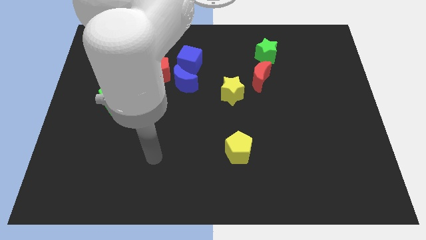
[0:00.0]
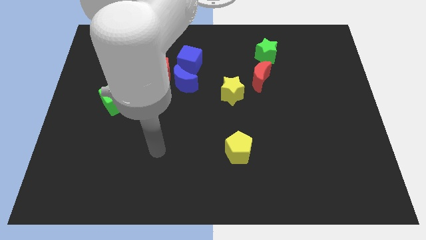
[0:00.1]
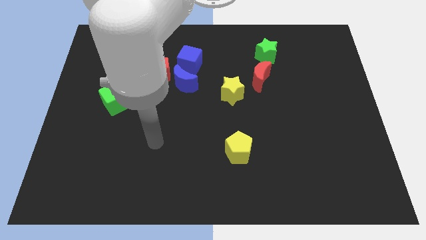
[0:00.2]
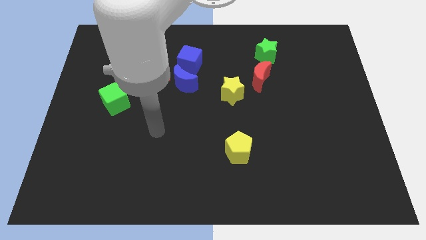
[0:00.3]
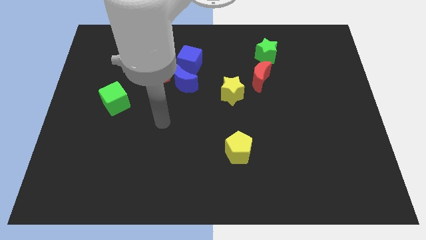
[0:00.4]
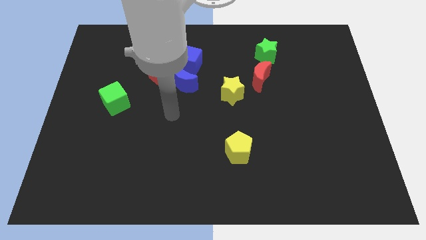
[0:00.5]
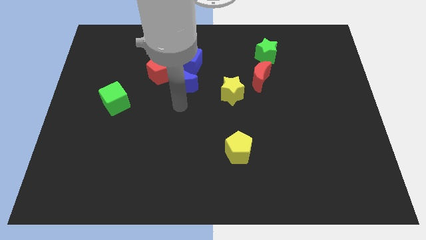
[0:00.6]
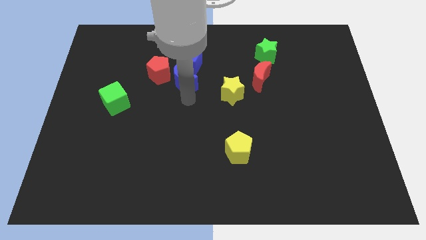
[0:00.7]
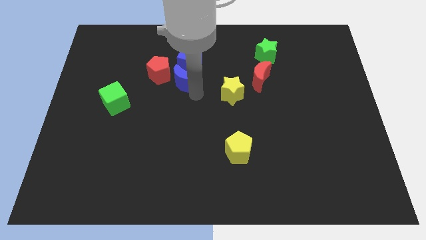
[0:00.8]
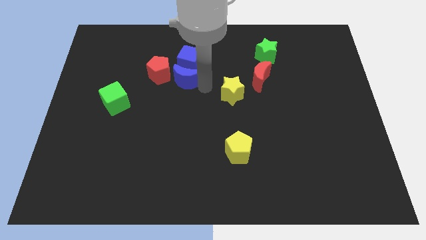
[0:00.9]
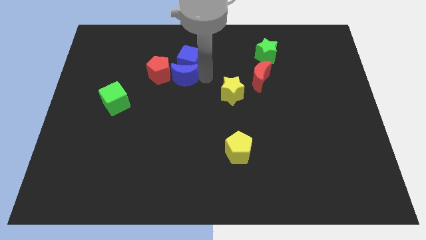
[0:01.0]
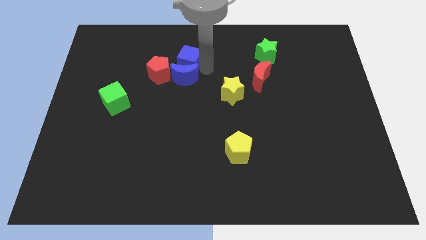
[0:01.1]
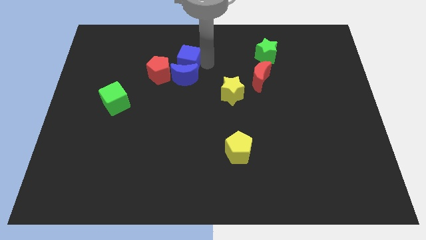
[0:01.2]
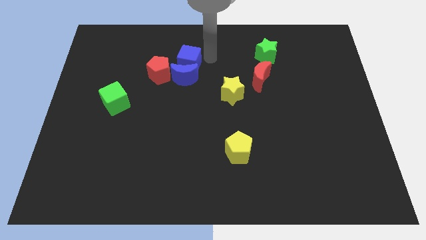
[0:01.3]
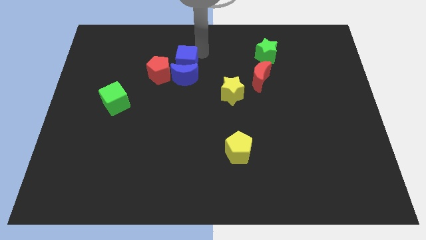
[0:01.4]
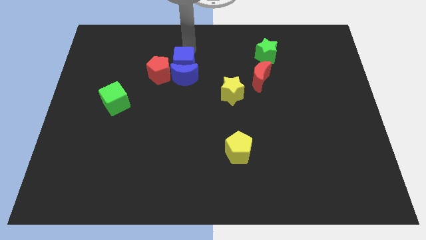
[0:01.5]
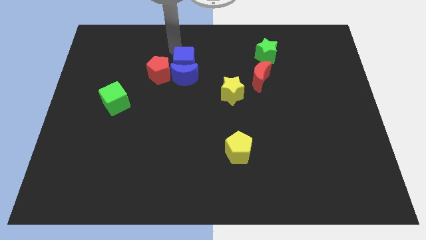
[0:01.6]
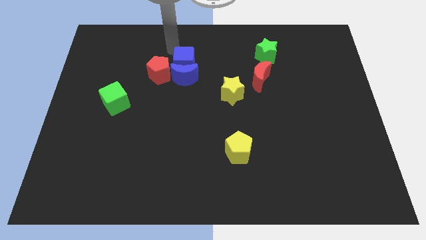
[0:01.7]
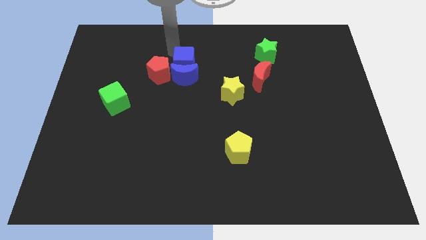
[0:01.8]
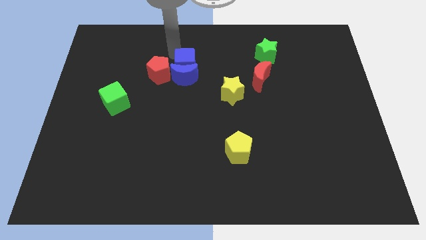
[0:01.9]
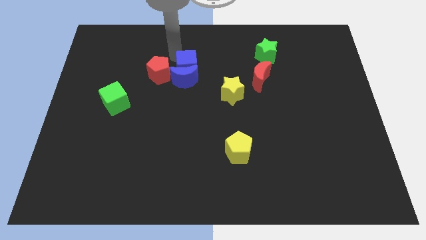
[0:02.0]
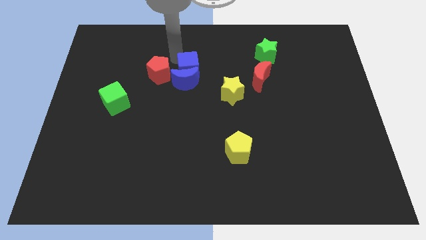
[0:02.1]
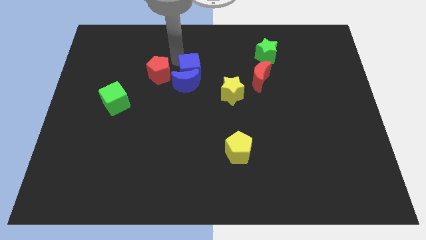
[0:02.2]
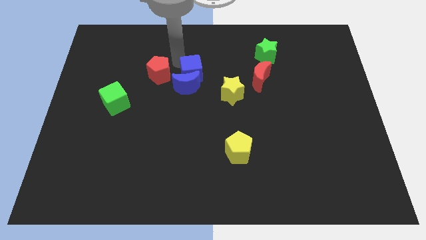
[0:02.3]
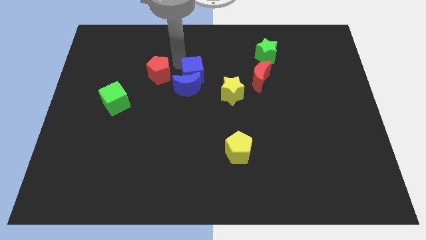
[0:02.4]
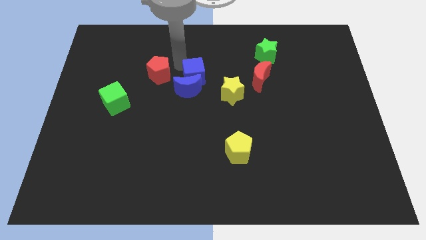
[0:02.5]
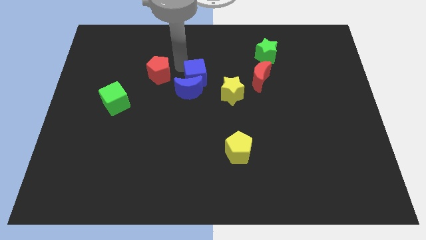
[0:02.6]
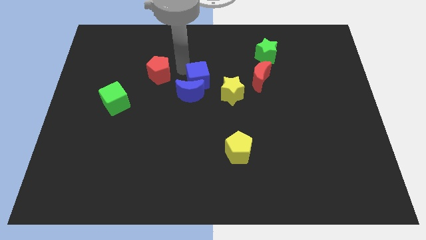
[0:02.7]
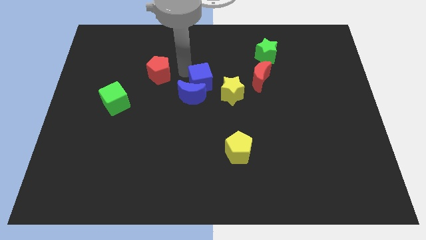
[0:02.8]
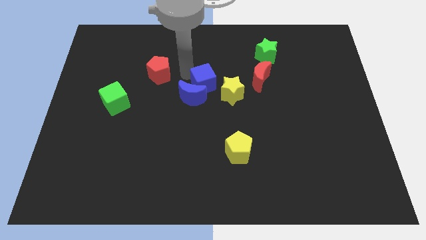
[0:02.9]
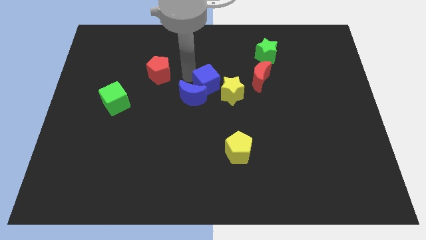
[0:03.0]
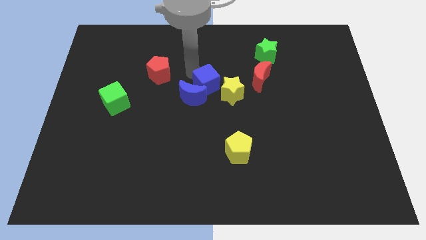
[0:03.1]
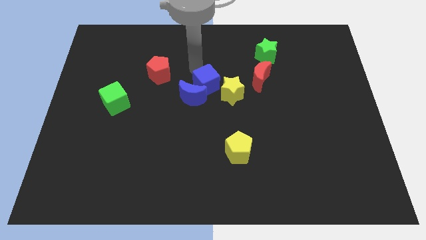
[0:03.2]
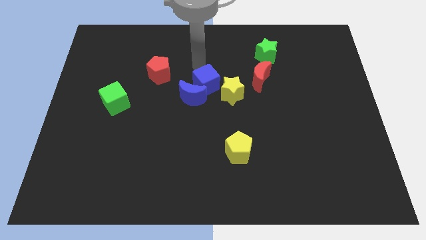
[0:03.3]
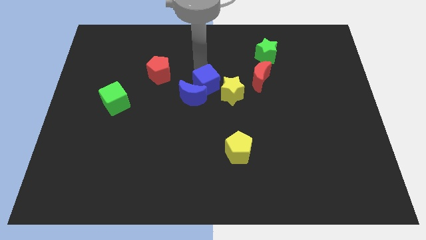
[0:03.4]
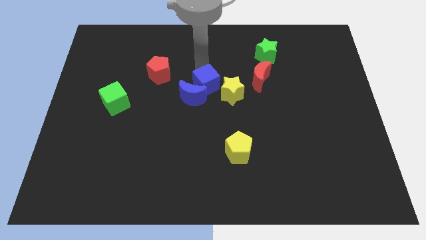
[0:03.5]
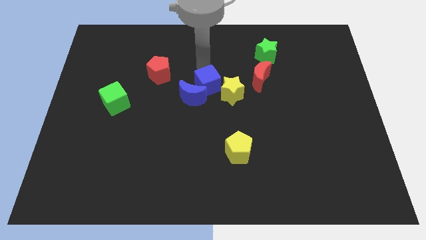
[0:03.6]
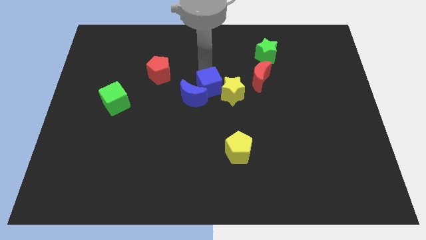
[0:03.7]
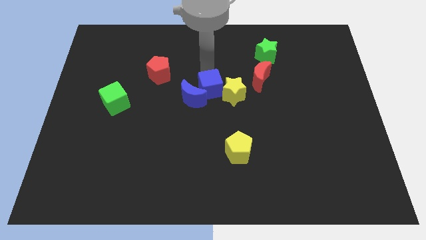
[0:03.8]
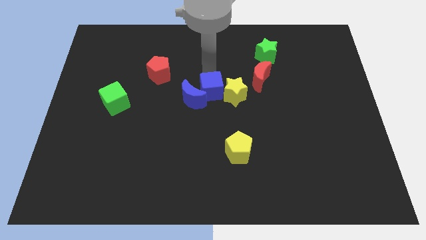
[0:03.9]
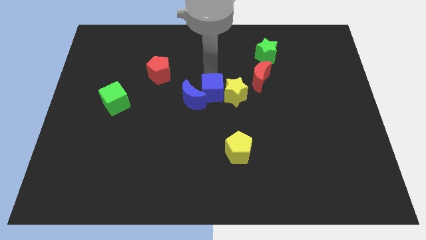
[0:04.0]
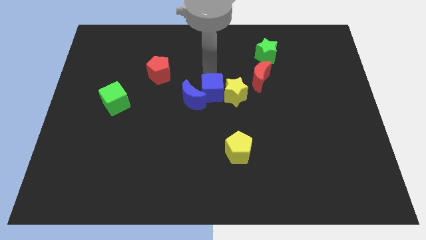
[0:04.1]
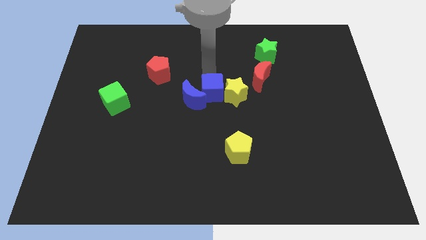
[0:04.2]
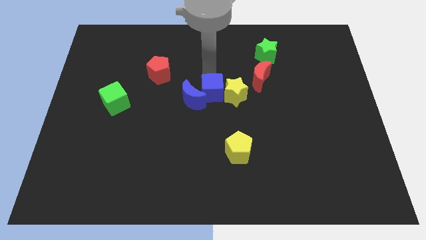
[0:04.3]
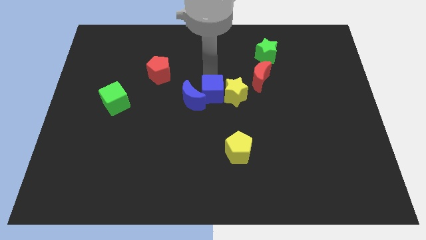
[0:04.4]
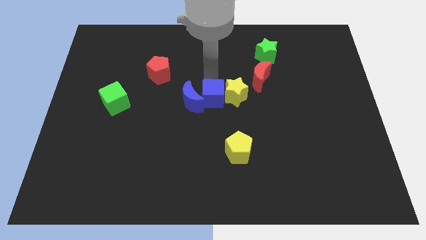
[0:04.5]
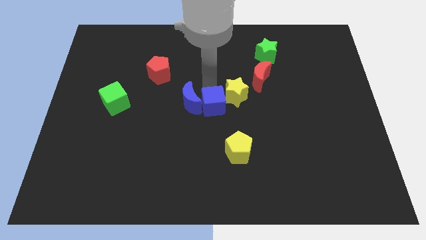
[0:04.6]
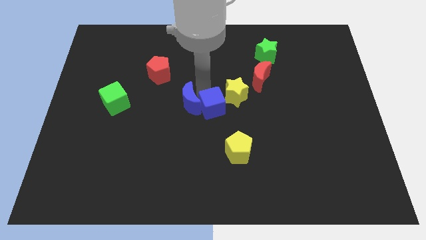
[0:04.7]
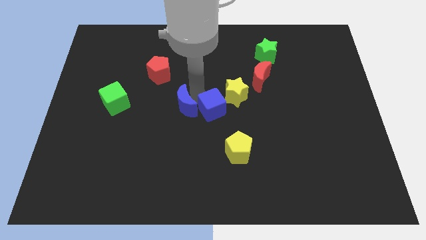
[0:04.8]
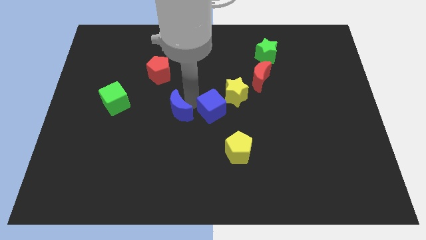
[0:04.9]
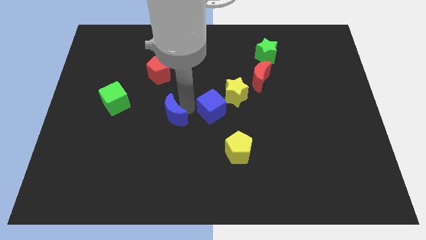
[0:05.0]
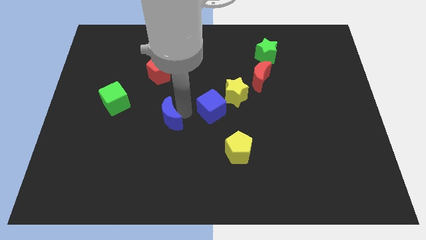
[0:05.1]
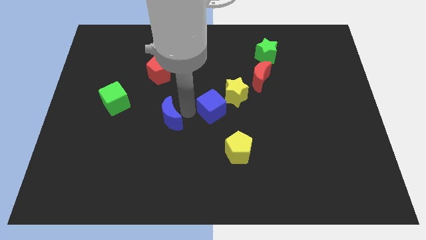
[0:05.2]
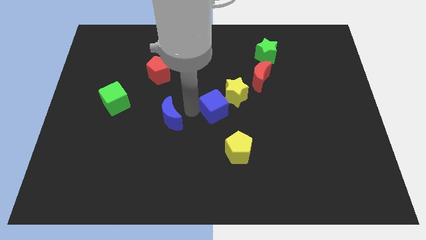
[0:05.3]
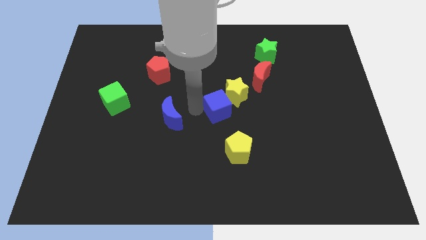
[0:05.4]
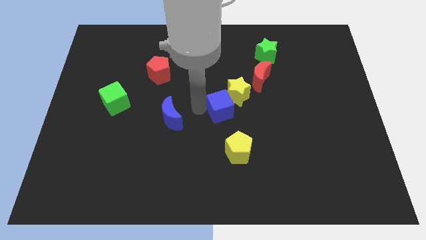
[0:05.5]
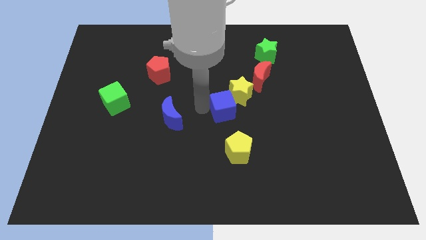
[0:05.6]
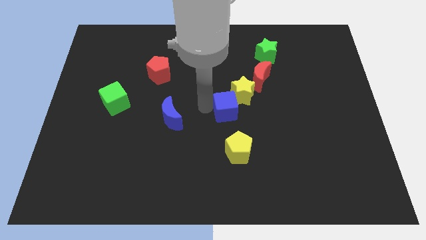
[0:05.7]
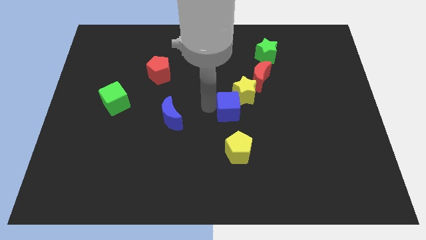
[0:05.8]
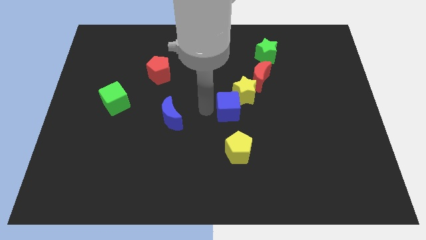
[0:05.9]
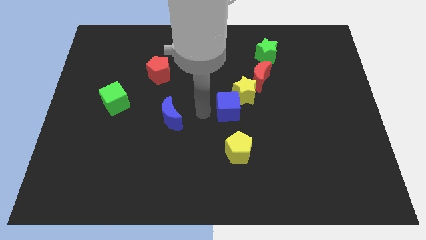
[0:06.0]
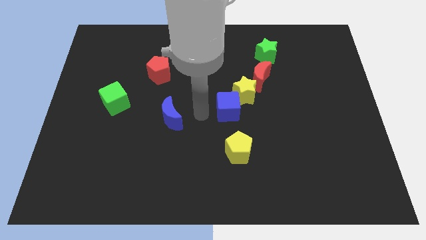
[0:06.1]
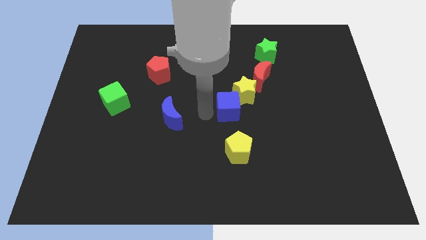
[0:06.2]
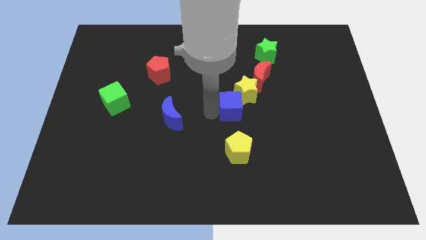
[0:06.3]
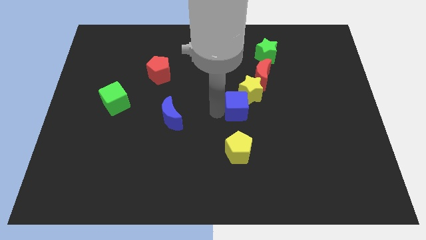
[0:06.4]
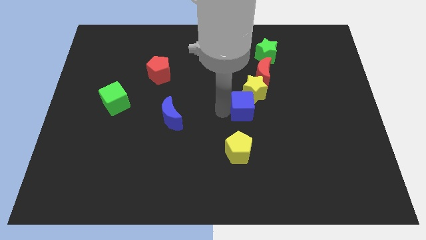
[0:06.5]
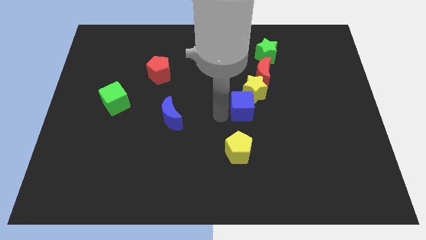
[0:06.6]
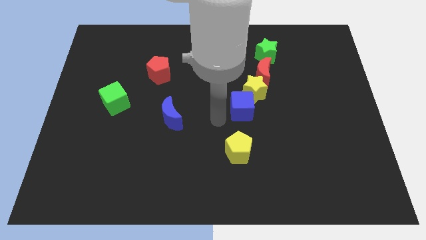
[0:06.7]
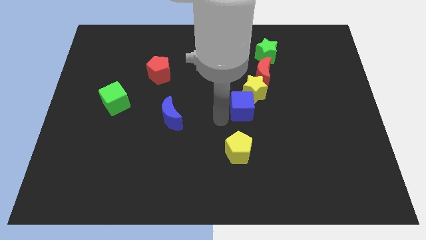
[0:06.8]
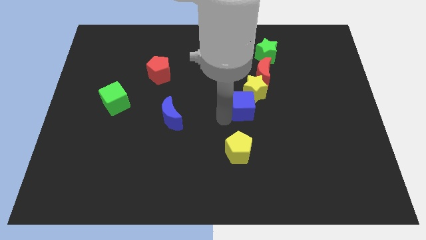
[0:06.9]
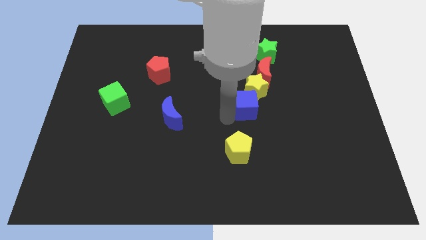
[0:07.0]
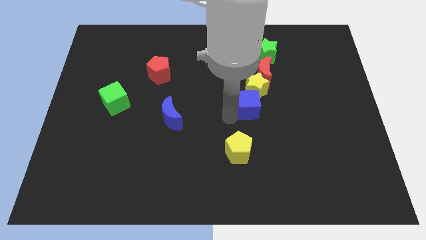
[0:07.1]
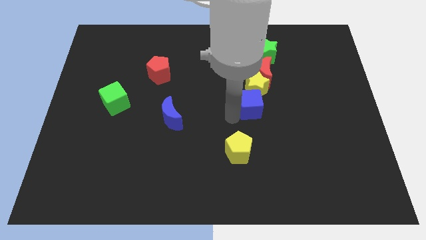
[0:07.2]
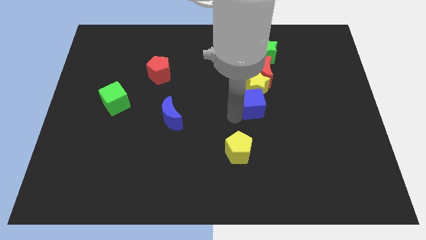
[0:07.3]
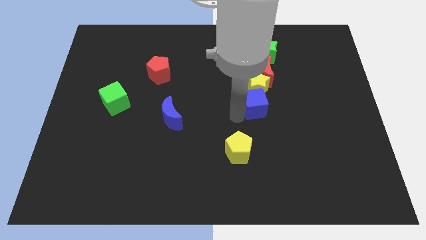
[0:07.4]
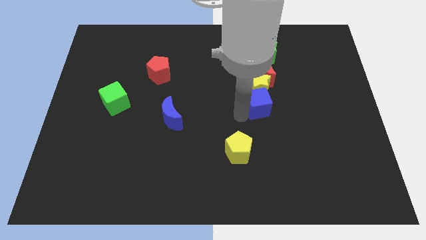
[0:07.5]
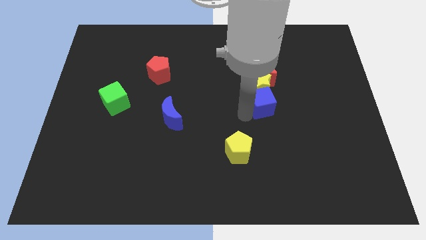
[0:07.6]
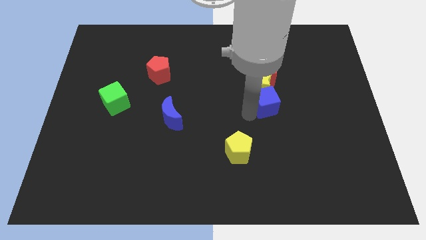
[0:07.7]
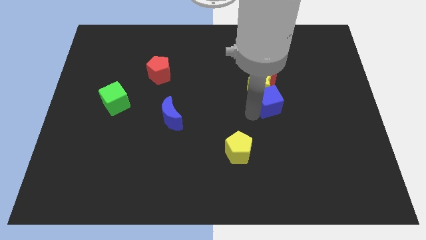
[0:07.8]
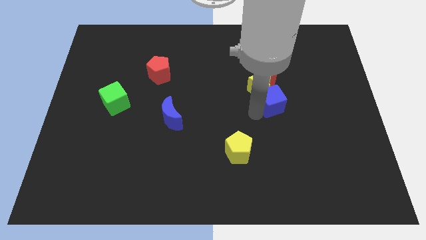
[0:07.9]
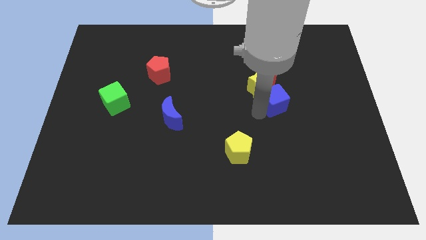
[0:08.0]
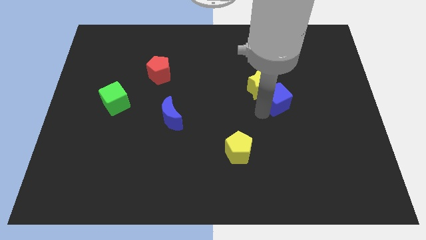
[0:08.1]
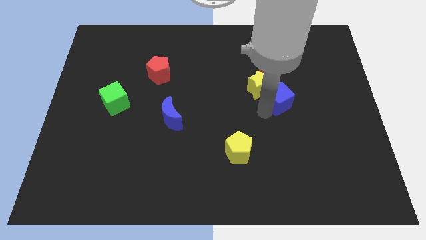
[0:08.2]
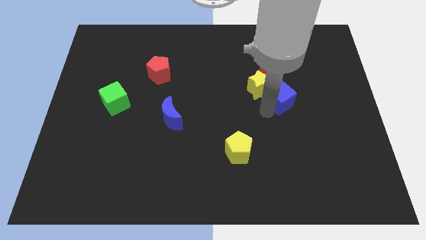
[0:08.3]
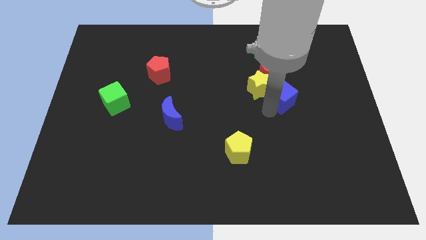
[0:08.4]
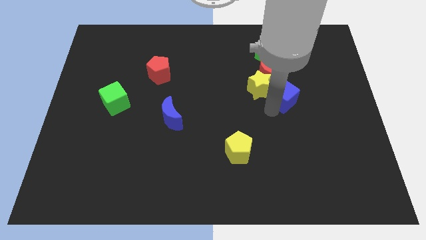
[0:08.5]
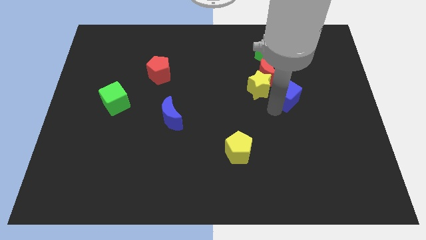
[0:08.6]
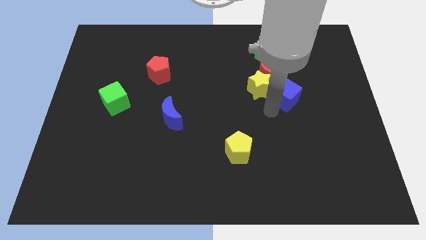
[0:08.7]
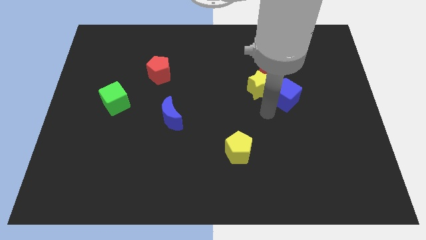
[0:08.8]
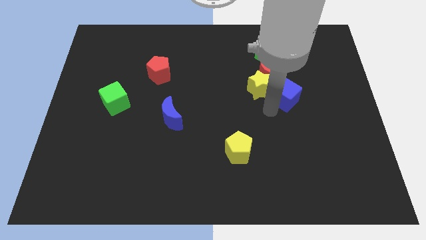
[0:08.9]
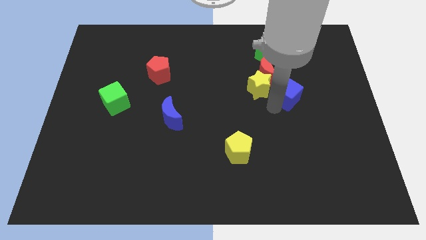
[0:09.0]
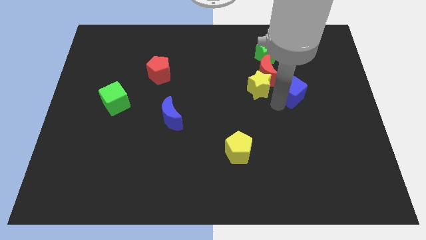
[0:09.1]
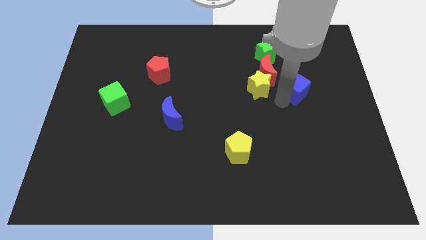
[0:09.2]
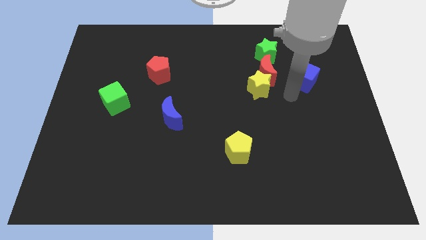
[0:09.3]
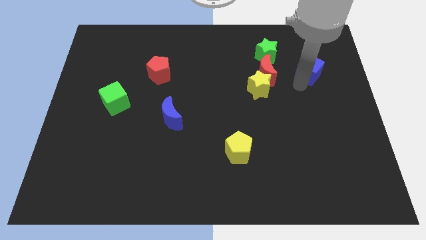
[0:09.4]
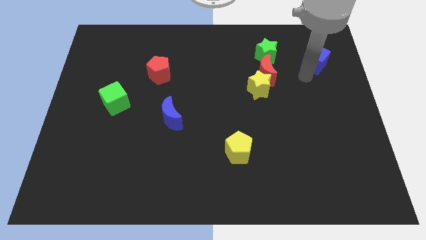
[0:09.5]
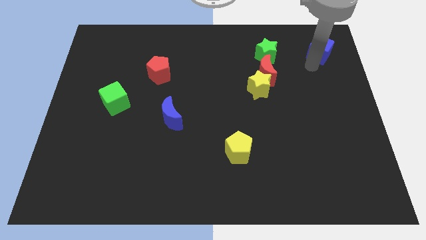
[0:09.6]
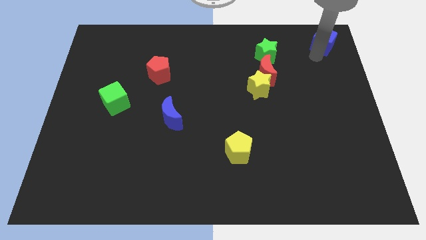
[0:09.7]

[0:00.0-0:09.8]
put the blue cube to the upper right corner
